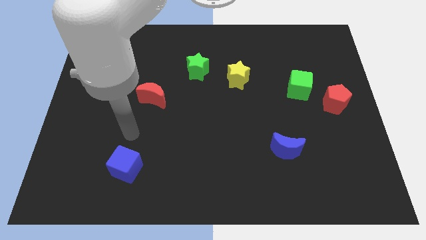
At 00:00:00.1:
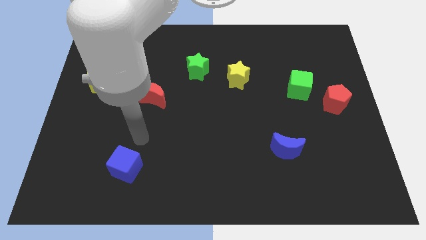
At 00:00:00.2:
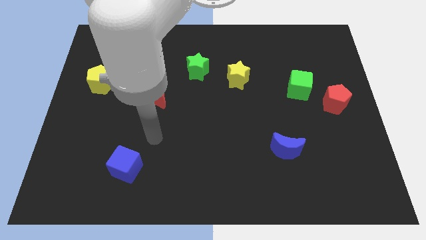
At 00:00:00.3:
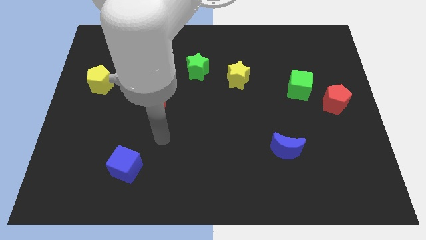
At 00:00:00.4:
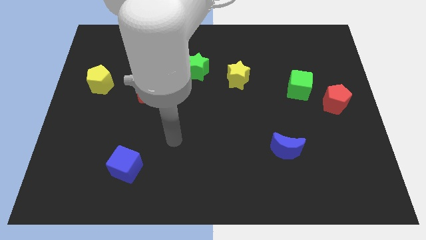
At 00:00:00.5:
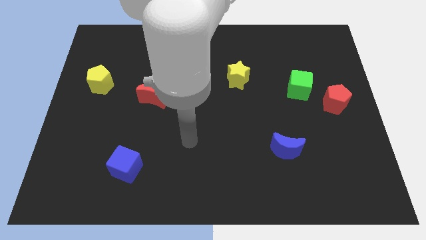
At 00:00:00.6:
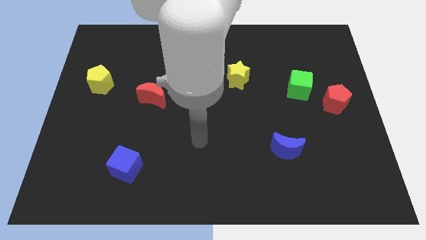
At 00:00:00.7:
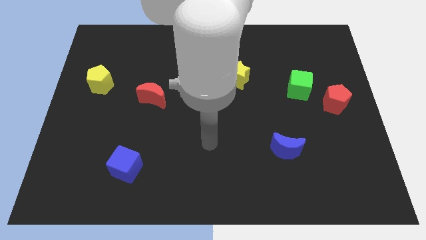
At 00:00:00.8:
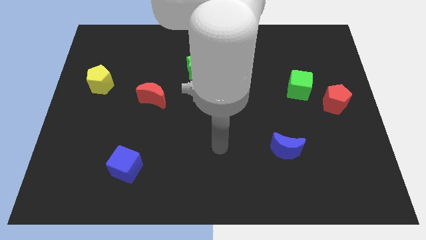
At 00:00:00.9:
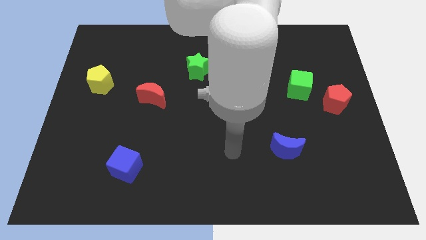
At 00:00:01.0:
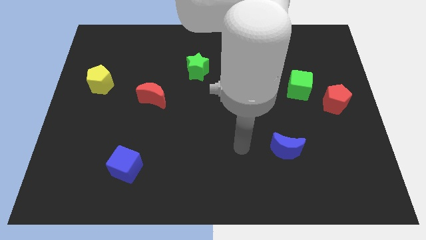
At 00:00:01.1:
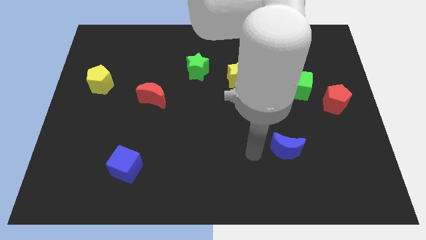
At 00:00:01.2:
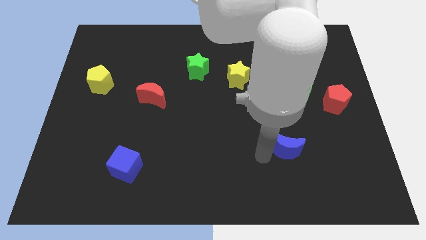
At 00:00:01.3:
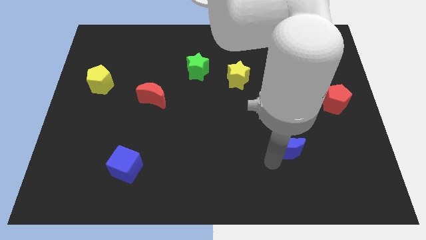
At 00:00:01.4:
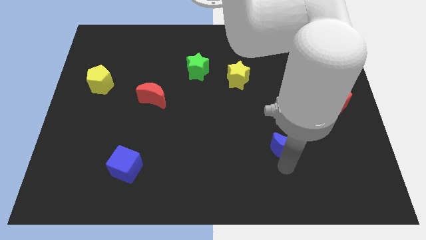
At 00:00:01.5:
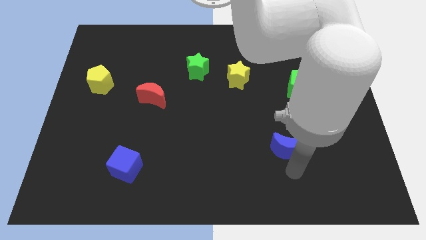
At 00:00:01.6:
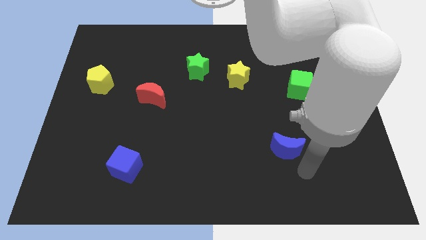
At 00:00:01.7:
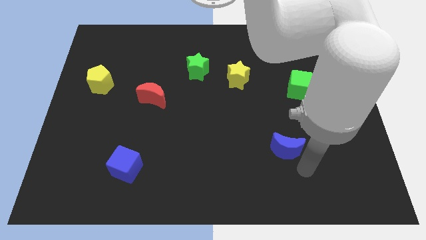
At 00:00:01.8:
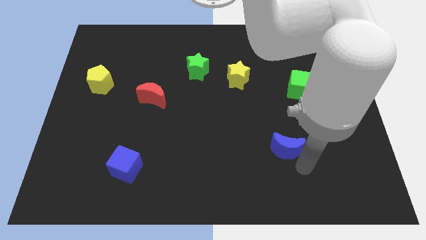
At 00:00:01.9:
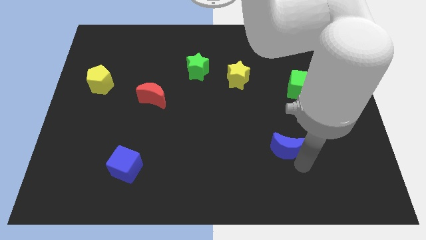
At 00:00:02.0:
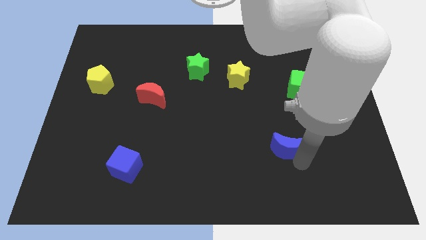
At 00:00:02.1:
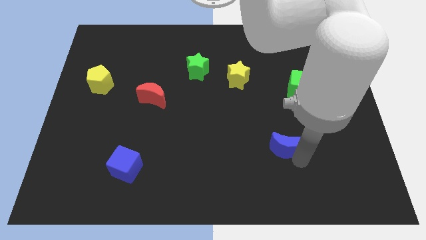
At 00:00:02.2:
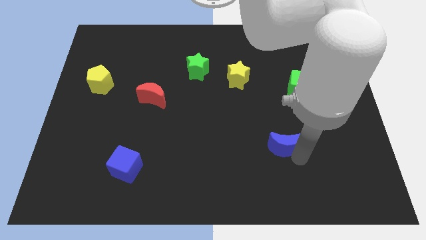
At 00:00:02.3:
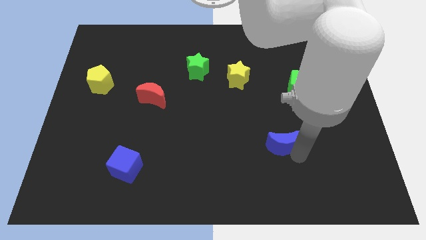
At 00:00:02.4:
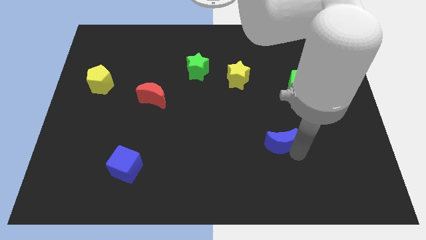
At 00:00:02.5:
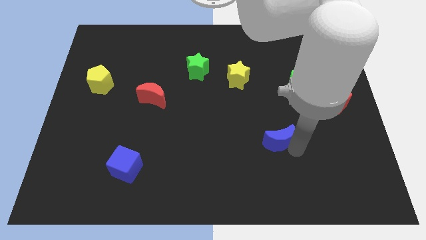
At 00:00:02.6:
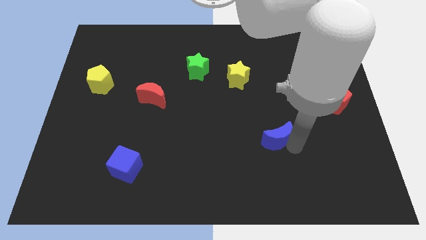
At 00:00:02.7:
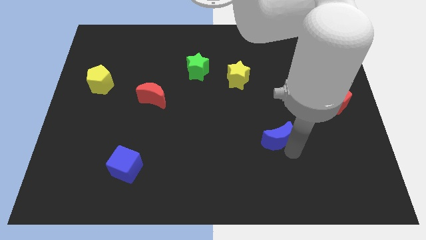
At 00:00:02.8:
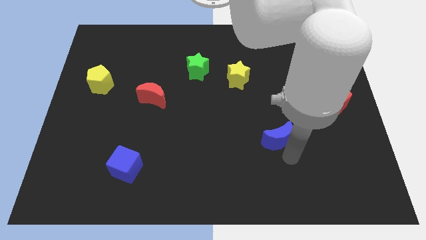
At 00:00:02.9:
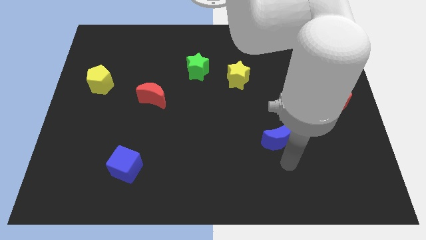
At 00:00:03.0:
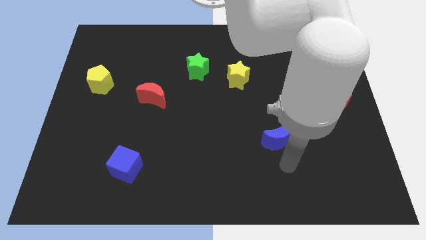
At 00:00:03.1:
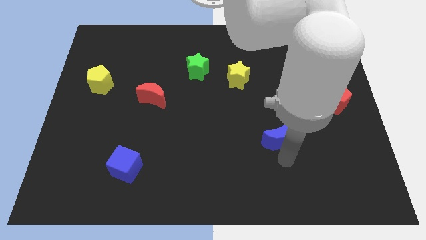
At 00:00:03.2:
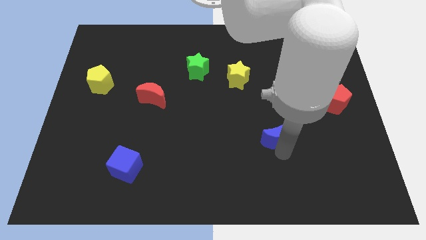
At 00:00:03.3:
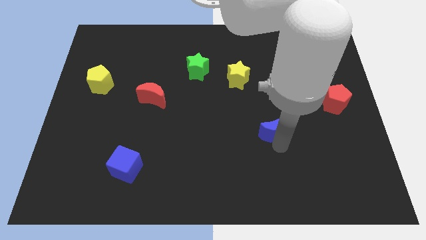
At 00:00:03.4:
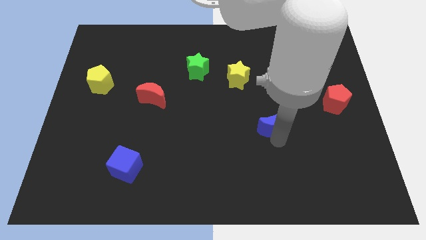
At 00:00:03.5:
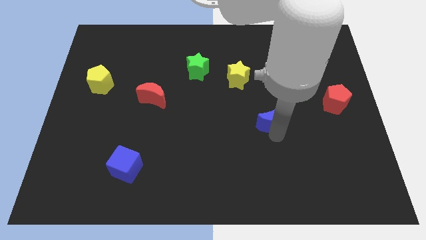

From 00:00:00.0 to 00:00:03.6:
push the blue moon a bit up

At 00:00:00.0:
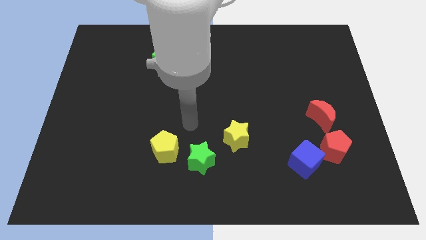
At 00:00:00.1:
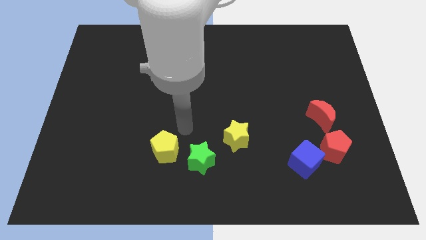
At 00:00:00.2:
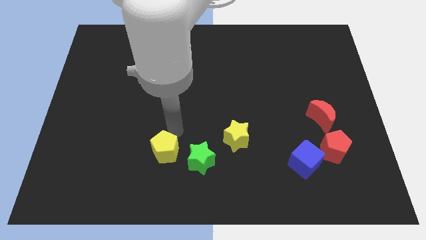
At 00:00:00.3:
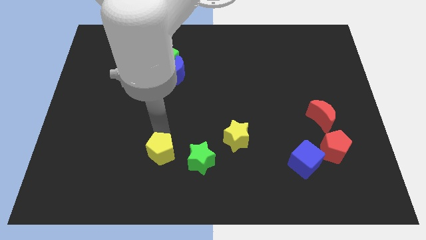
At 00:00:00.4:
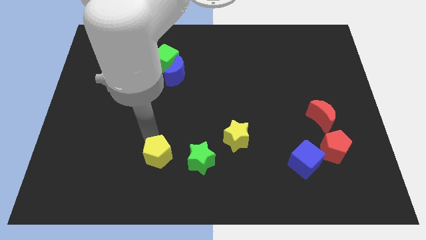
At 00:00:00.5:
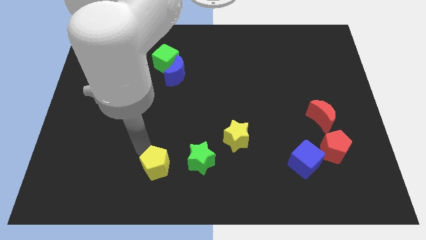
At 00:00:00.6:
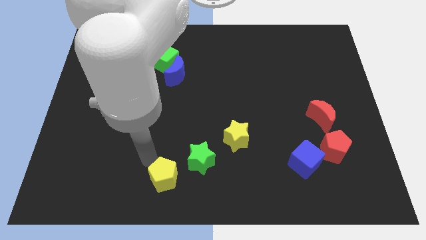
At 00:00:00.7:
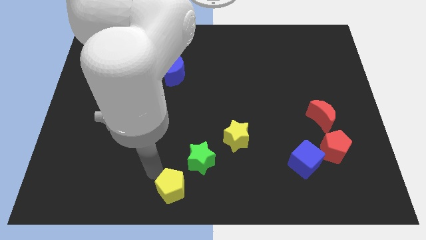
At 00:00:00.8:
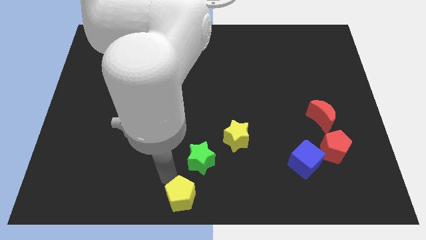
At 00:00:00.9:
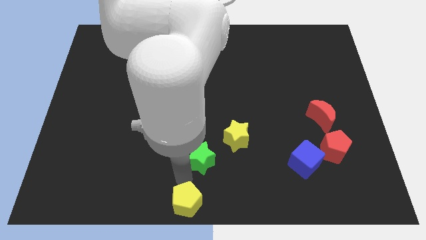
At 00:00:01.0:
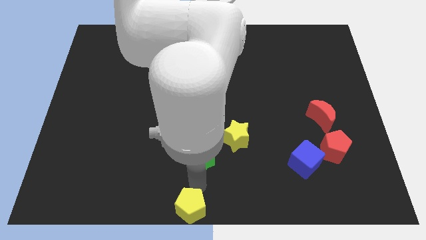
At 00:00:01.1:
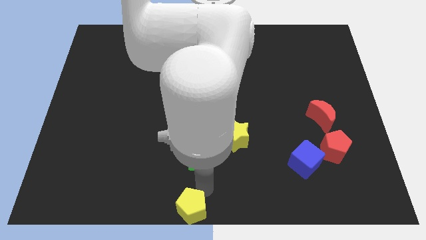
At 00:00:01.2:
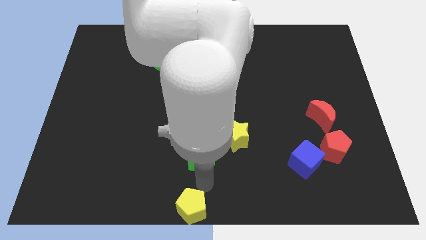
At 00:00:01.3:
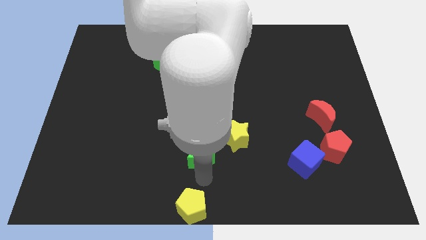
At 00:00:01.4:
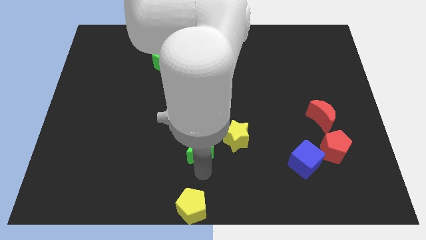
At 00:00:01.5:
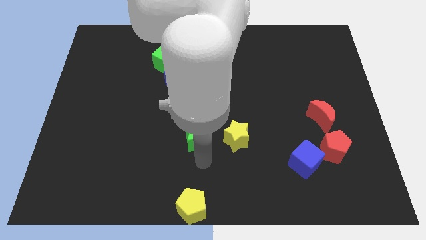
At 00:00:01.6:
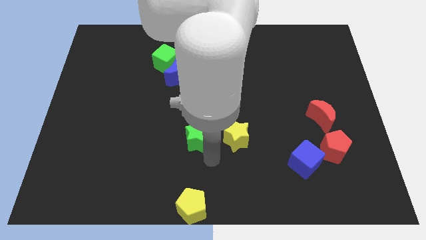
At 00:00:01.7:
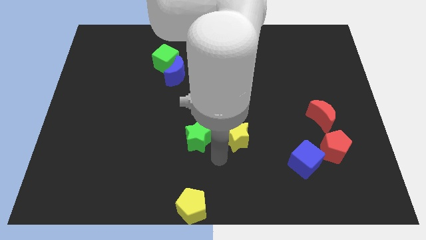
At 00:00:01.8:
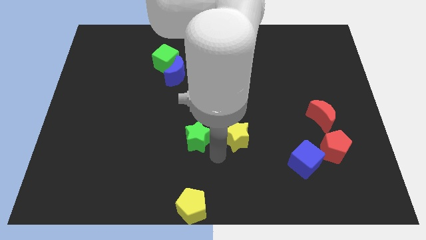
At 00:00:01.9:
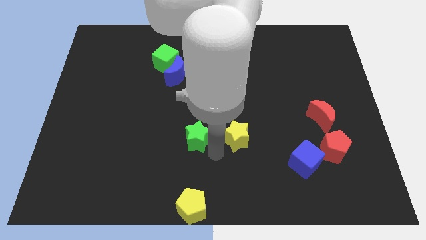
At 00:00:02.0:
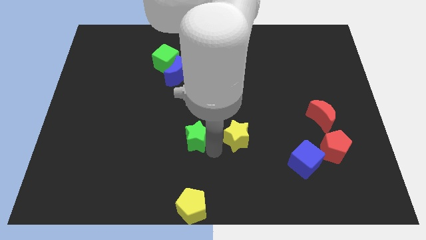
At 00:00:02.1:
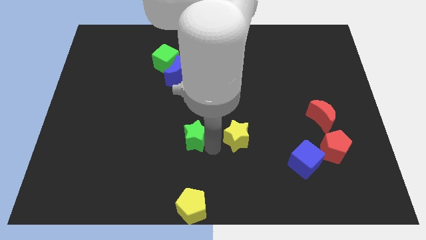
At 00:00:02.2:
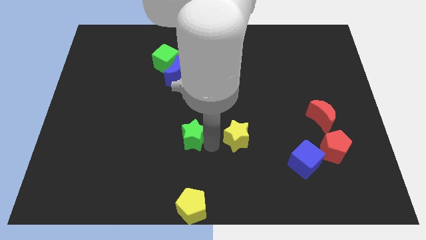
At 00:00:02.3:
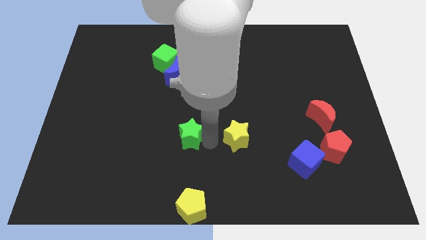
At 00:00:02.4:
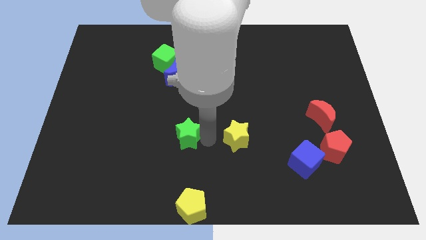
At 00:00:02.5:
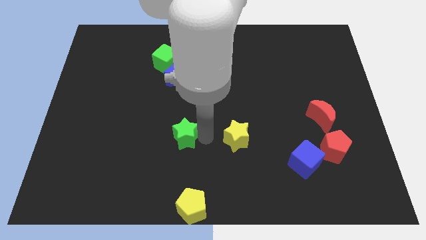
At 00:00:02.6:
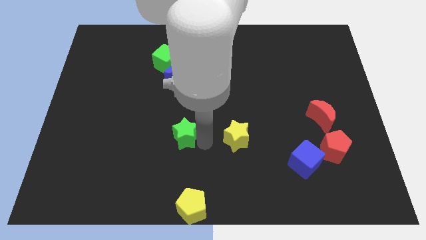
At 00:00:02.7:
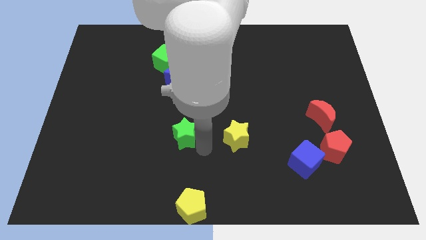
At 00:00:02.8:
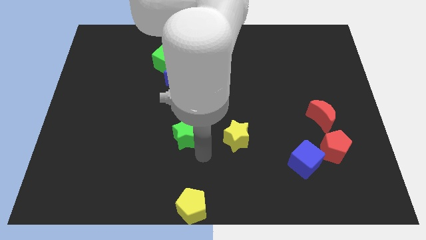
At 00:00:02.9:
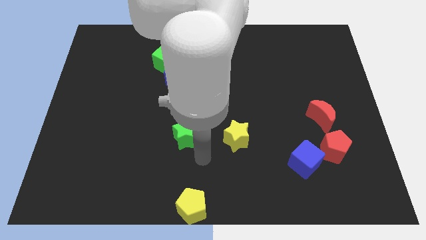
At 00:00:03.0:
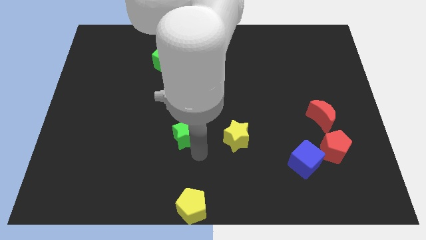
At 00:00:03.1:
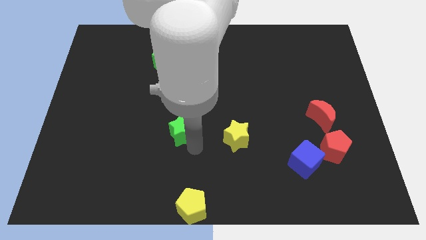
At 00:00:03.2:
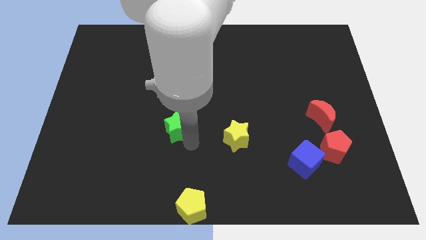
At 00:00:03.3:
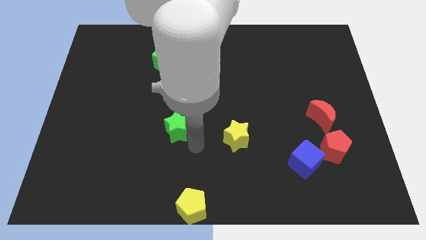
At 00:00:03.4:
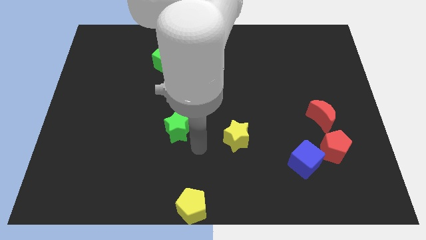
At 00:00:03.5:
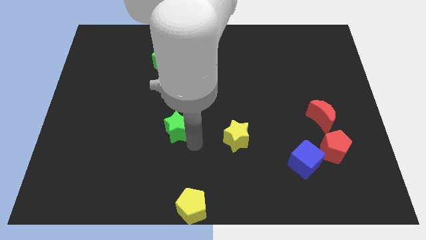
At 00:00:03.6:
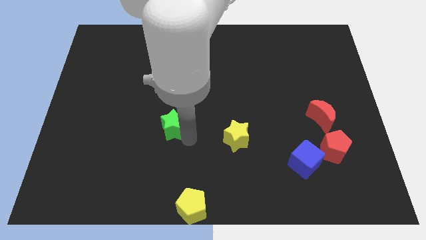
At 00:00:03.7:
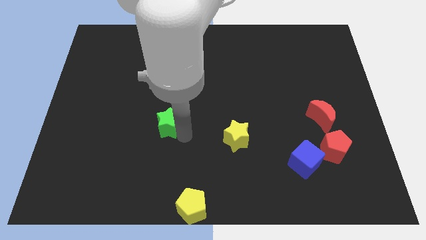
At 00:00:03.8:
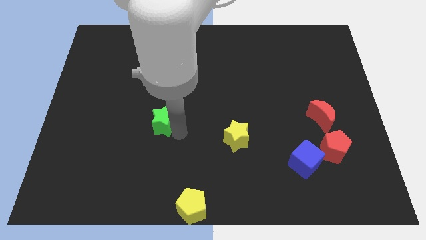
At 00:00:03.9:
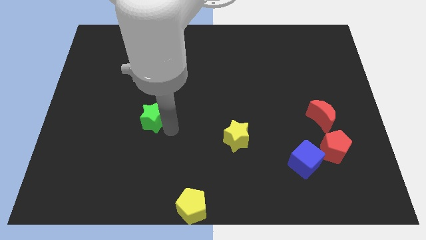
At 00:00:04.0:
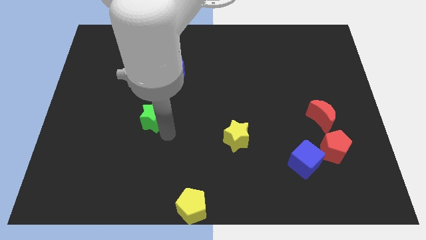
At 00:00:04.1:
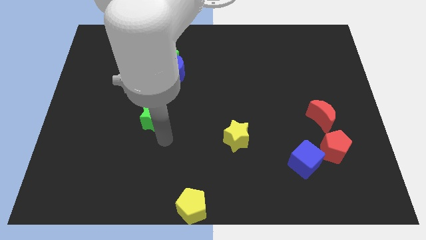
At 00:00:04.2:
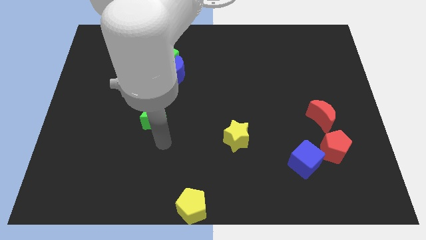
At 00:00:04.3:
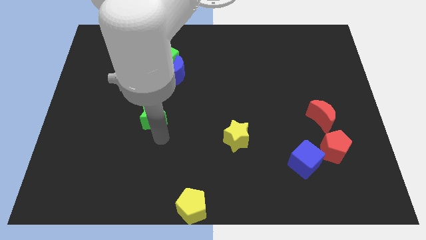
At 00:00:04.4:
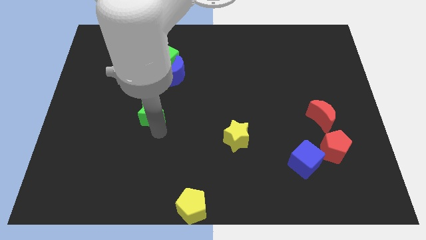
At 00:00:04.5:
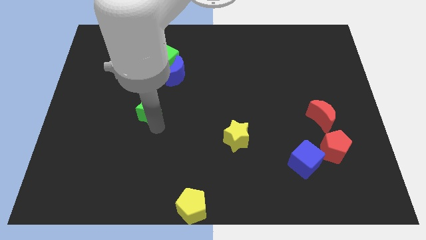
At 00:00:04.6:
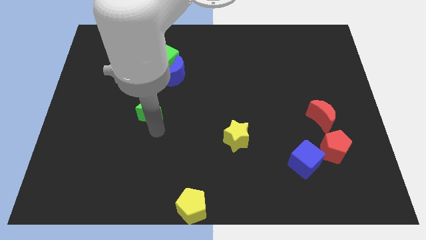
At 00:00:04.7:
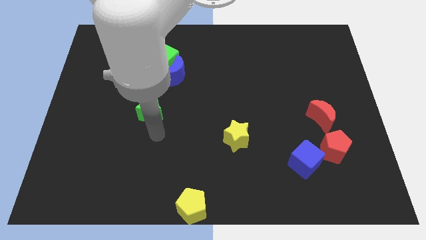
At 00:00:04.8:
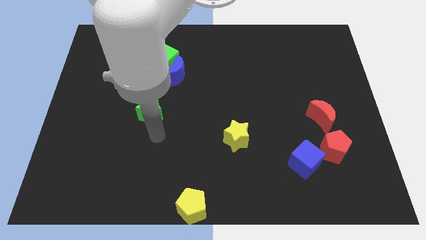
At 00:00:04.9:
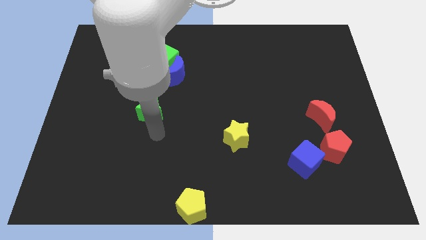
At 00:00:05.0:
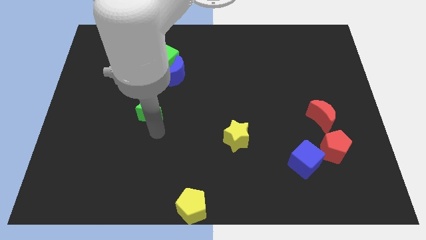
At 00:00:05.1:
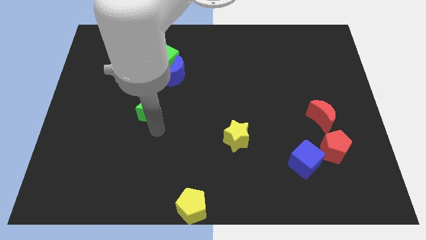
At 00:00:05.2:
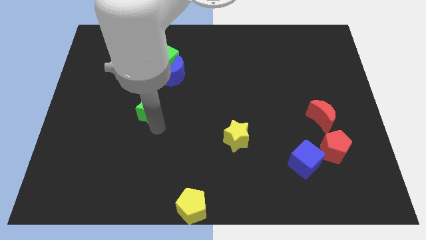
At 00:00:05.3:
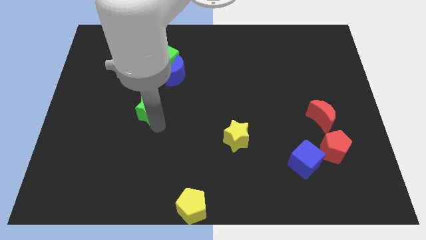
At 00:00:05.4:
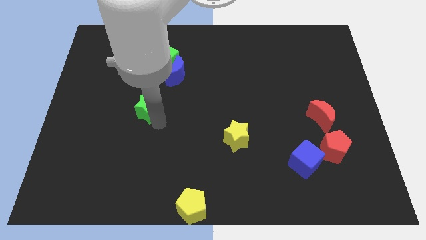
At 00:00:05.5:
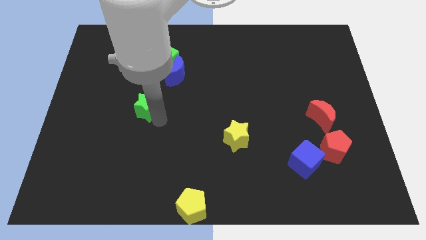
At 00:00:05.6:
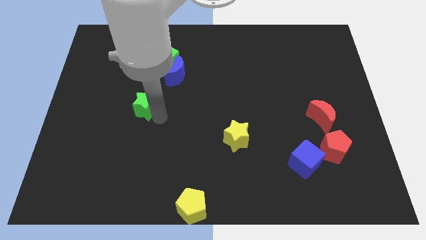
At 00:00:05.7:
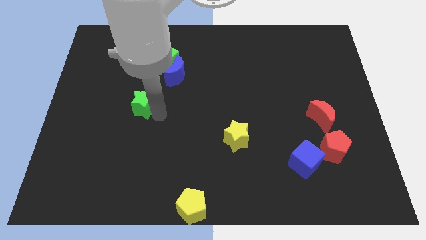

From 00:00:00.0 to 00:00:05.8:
push the green star upwards and left
